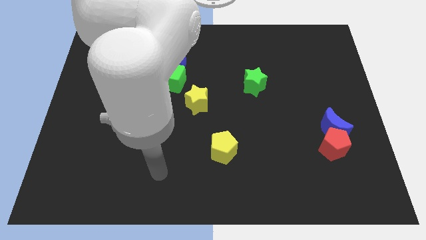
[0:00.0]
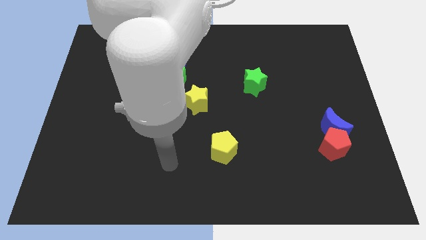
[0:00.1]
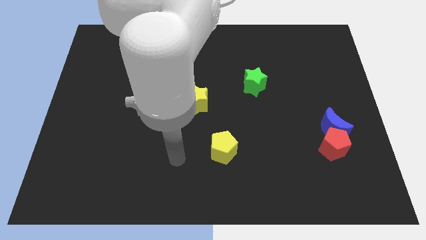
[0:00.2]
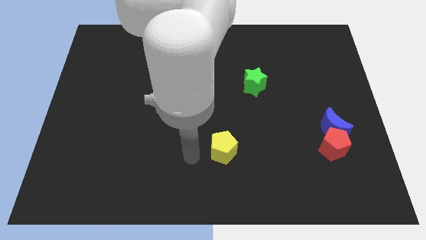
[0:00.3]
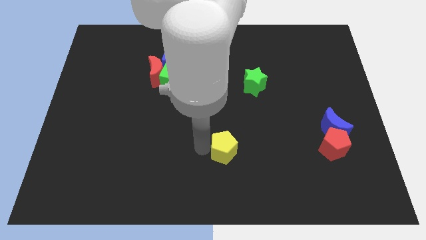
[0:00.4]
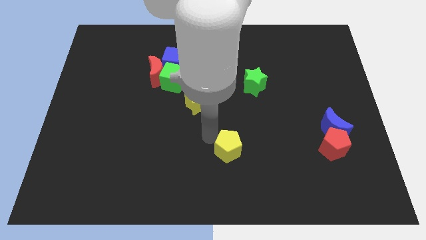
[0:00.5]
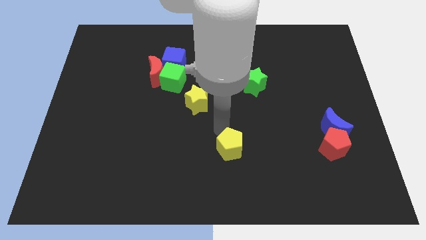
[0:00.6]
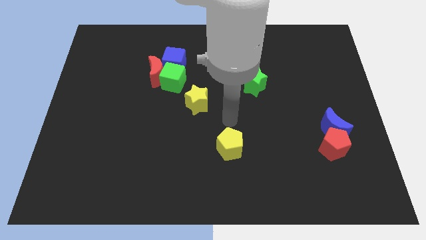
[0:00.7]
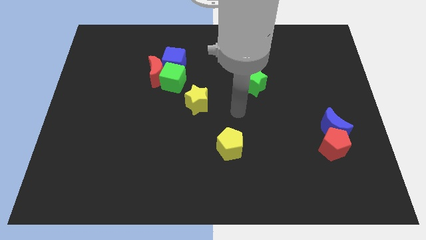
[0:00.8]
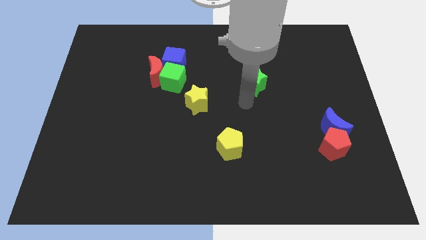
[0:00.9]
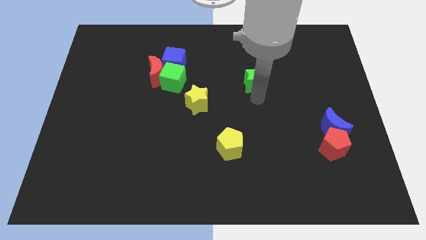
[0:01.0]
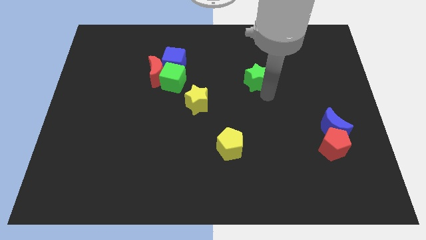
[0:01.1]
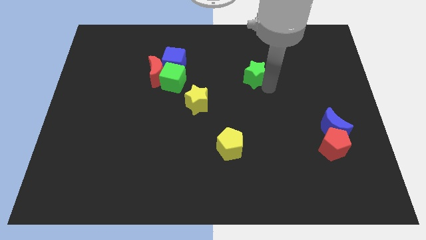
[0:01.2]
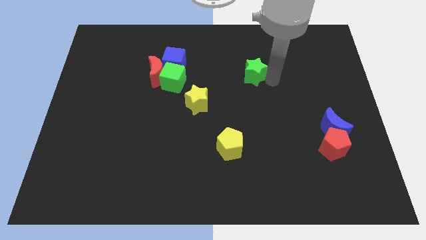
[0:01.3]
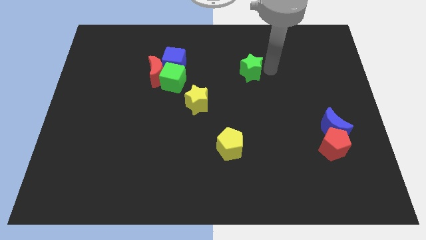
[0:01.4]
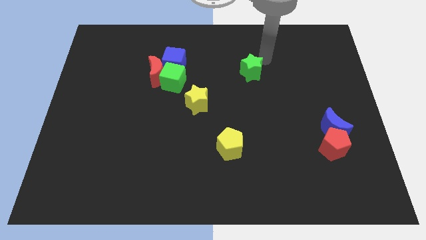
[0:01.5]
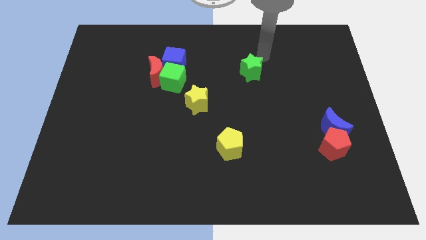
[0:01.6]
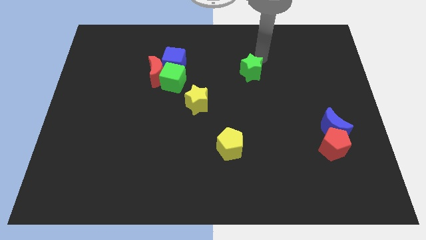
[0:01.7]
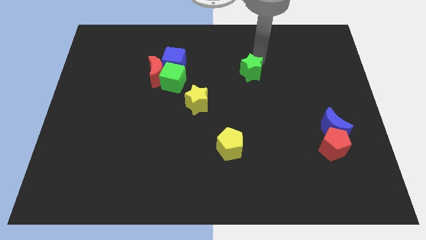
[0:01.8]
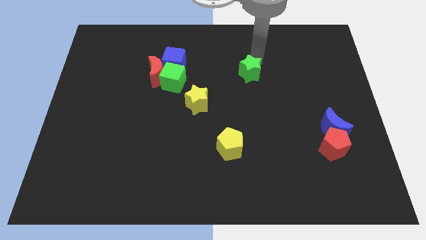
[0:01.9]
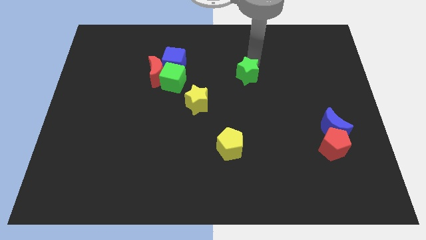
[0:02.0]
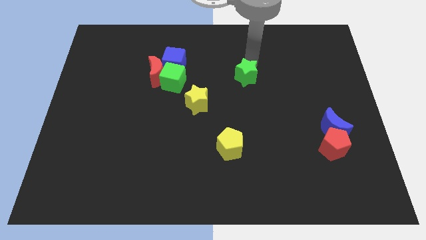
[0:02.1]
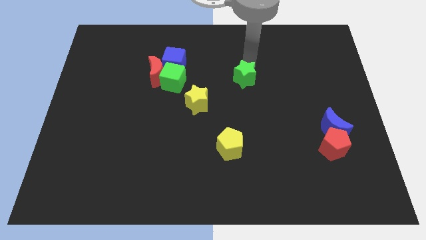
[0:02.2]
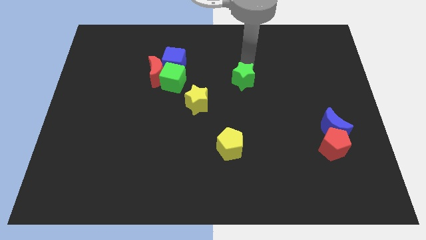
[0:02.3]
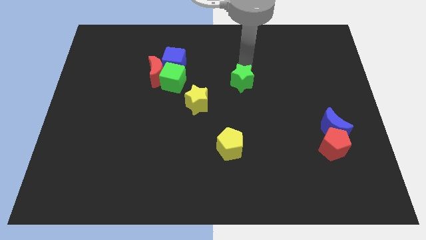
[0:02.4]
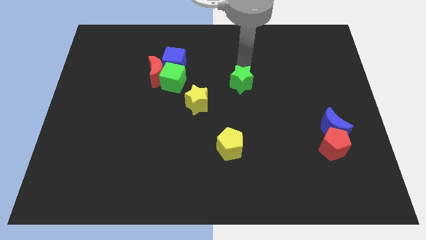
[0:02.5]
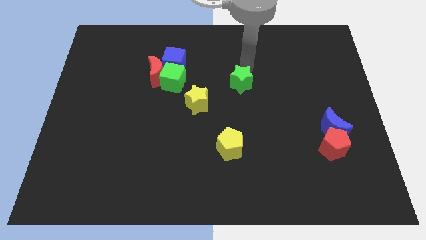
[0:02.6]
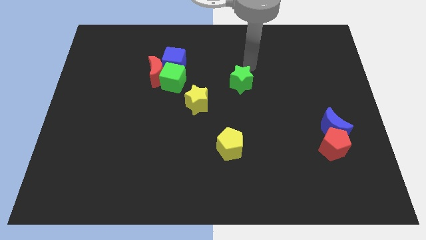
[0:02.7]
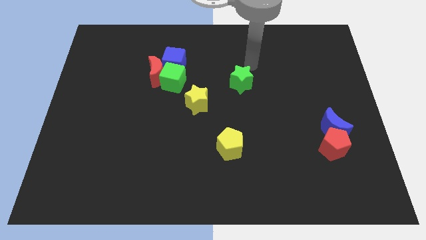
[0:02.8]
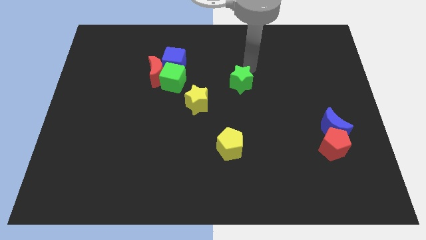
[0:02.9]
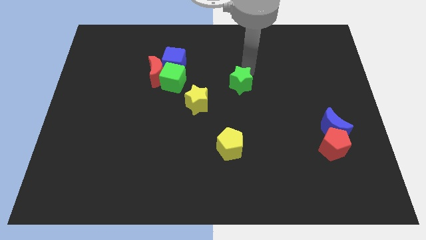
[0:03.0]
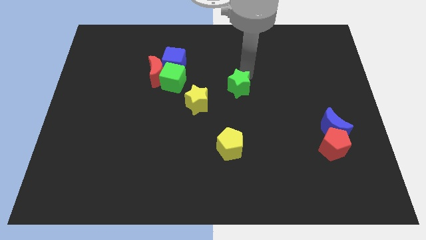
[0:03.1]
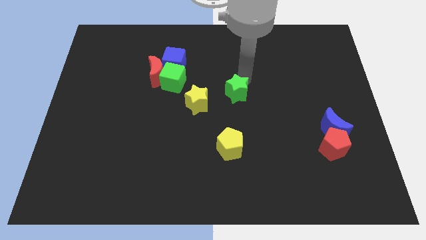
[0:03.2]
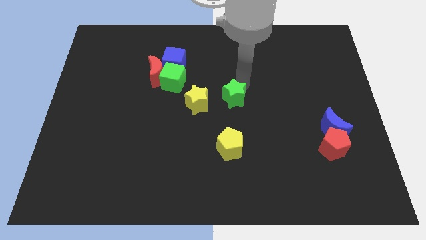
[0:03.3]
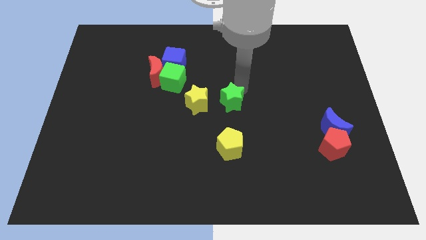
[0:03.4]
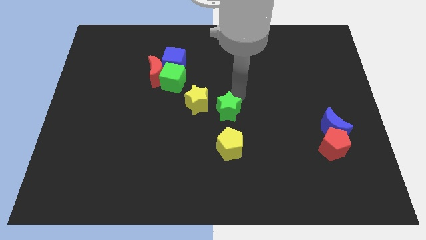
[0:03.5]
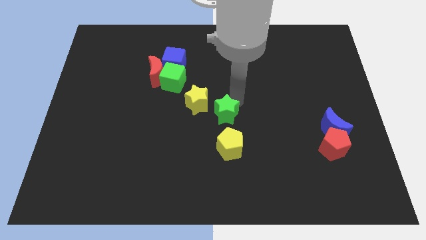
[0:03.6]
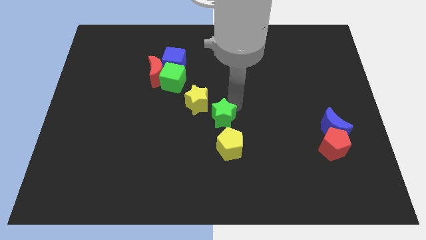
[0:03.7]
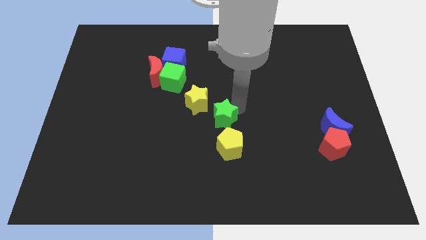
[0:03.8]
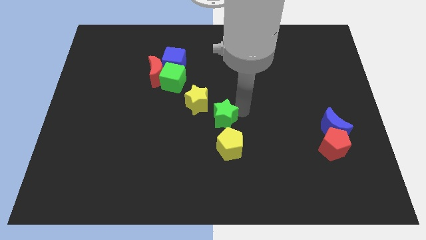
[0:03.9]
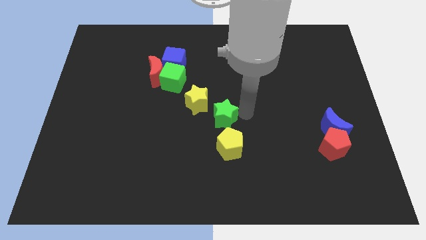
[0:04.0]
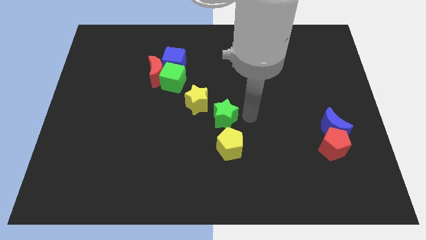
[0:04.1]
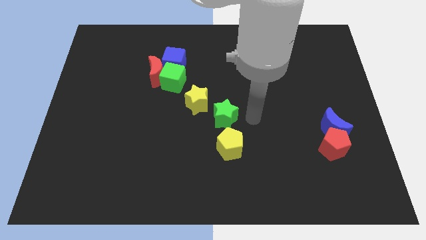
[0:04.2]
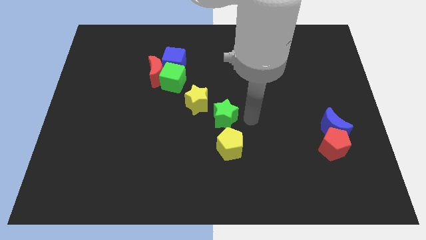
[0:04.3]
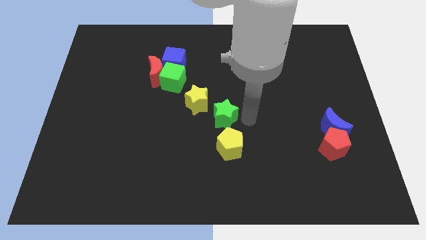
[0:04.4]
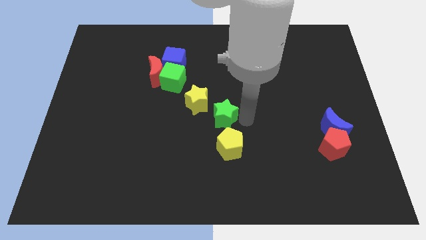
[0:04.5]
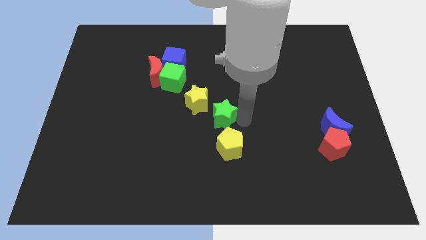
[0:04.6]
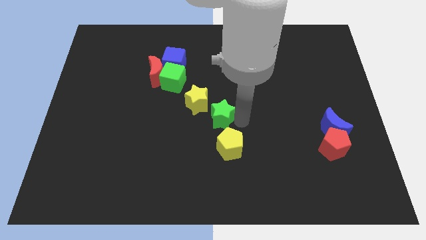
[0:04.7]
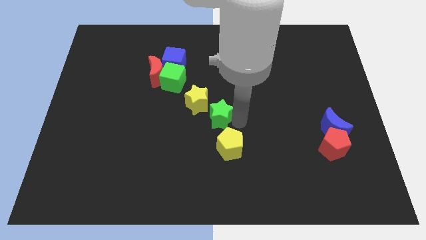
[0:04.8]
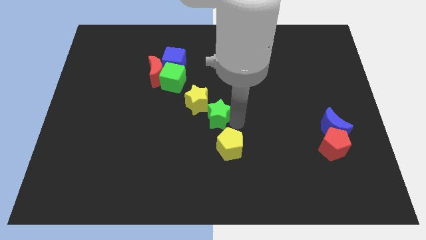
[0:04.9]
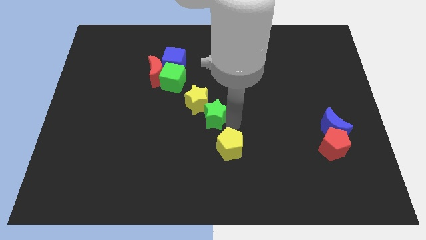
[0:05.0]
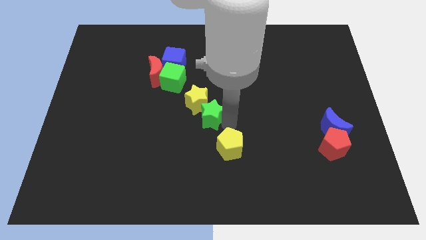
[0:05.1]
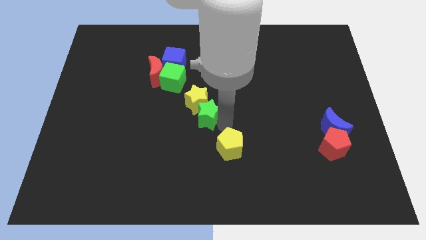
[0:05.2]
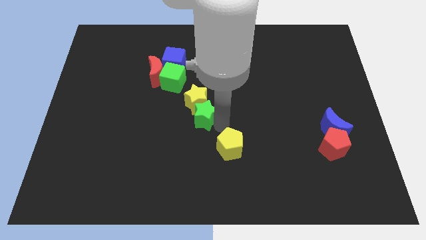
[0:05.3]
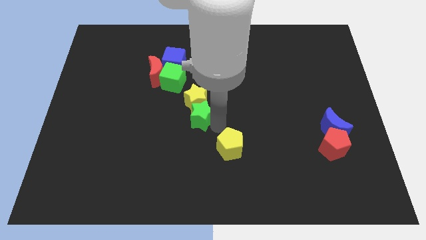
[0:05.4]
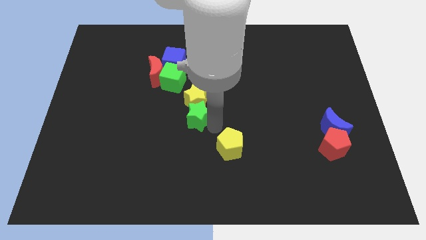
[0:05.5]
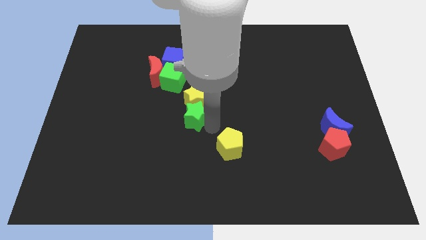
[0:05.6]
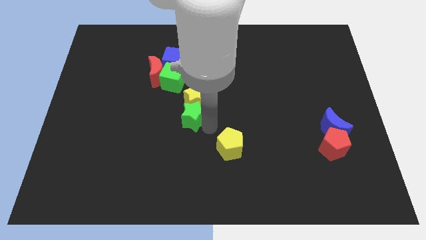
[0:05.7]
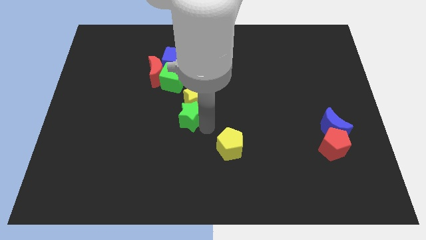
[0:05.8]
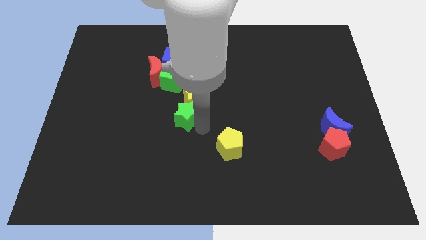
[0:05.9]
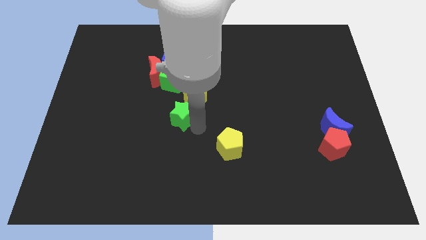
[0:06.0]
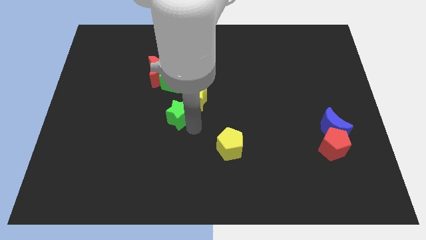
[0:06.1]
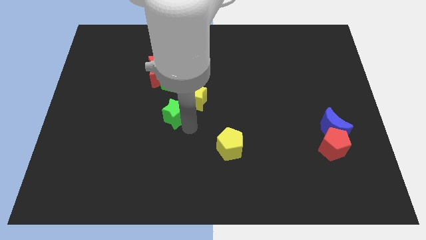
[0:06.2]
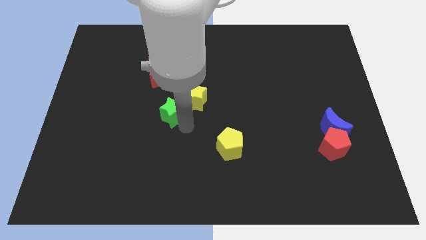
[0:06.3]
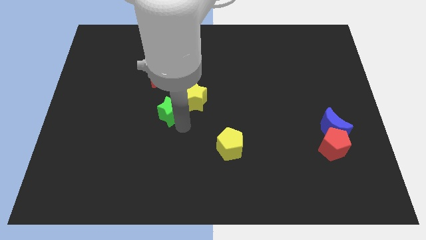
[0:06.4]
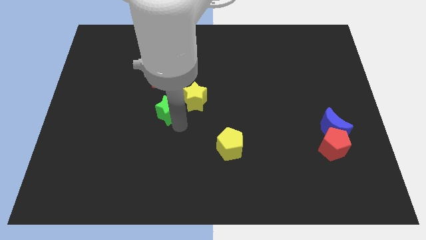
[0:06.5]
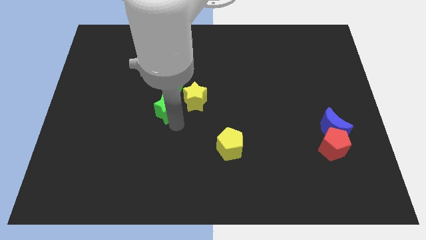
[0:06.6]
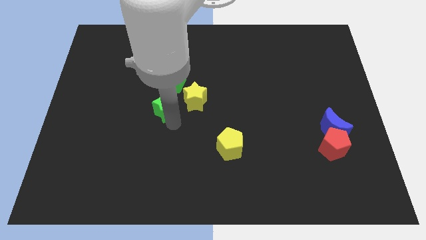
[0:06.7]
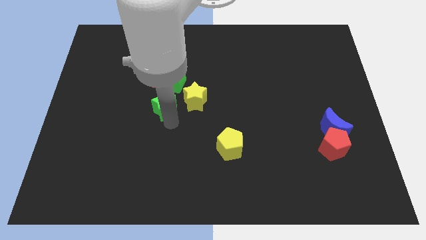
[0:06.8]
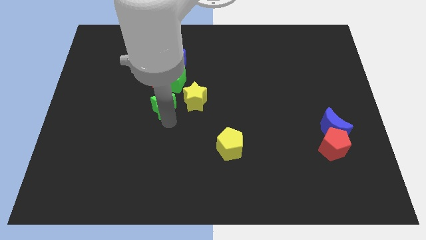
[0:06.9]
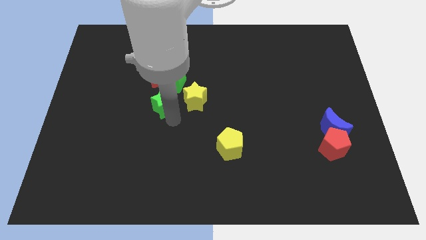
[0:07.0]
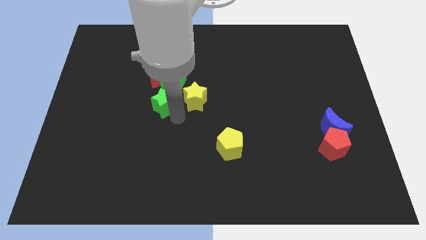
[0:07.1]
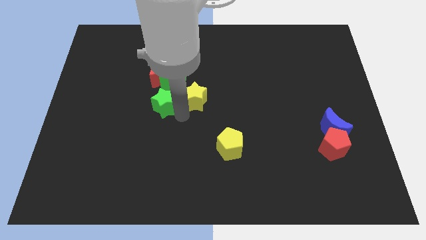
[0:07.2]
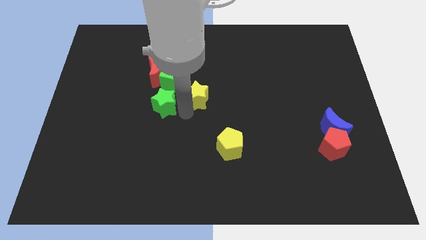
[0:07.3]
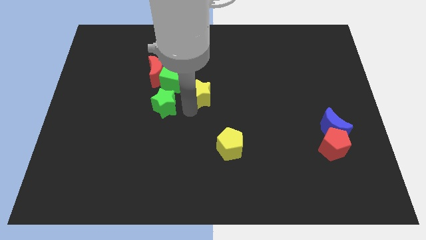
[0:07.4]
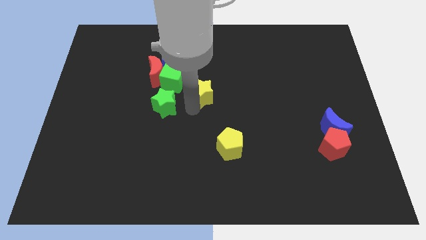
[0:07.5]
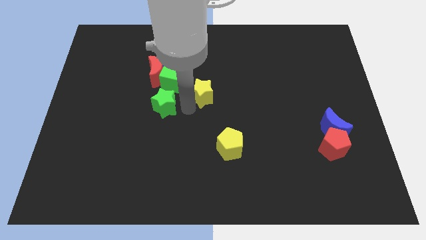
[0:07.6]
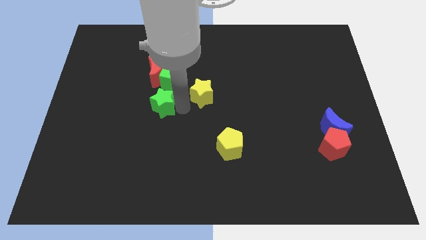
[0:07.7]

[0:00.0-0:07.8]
push the green star to the left

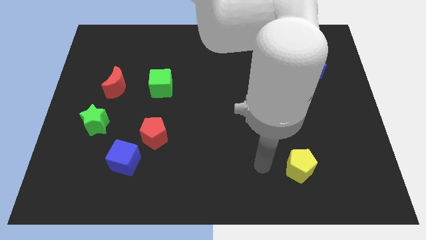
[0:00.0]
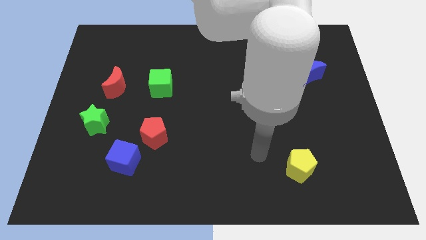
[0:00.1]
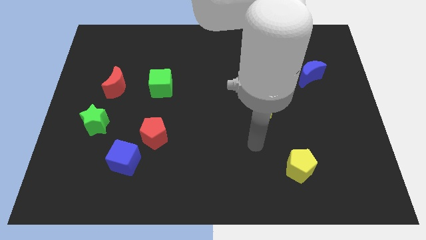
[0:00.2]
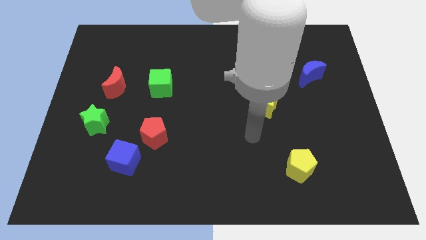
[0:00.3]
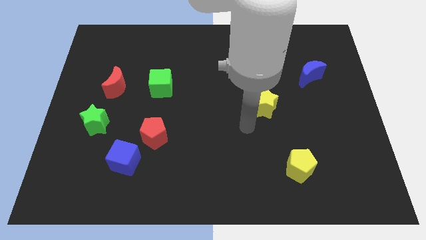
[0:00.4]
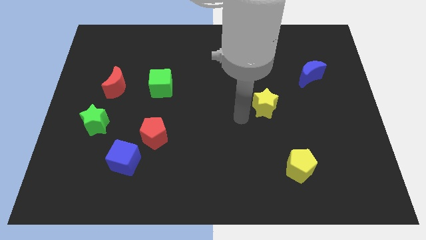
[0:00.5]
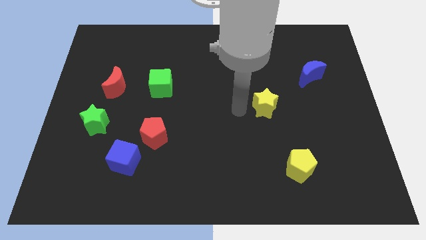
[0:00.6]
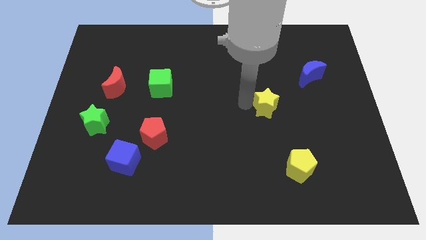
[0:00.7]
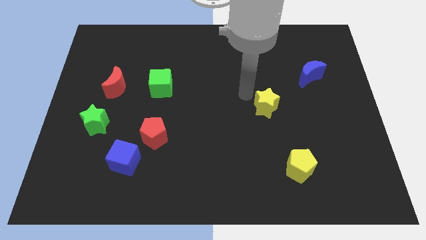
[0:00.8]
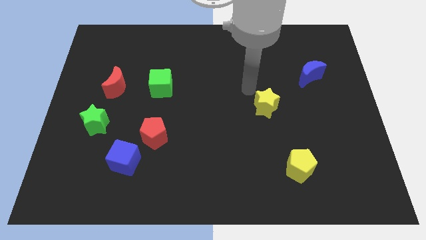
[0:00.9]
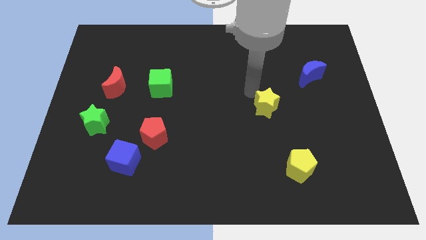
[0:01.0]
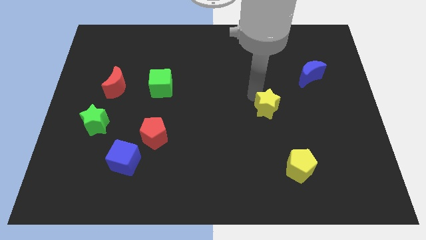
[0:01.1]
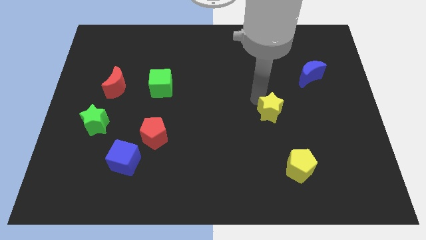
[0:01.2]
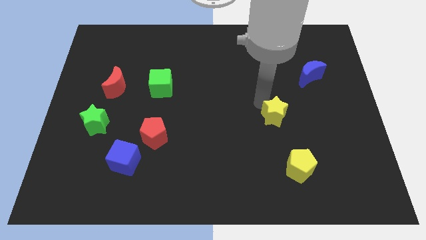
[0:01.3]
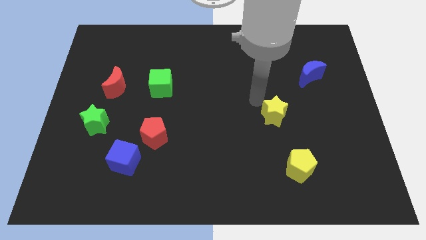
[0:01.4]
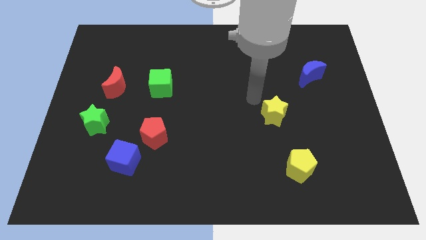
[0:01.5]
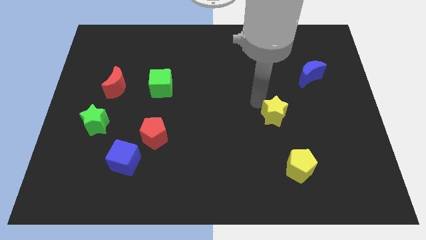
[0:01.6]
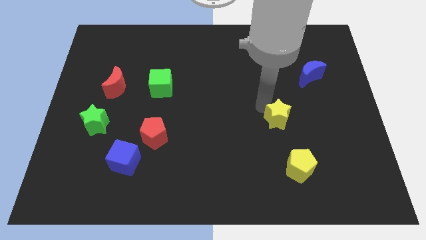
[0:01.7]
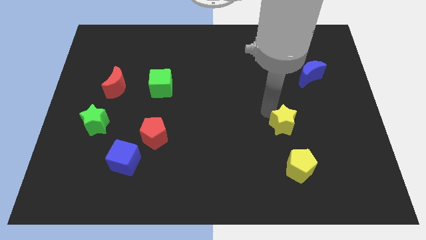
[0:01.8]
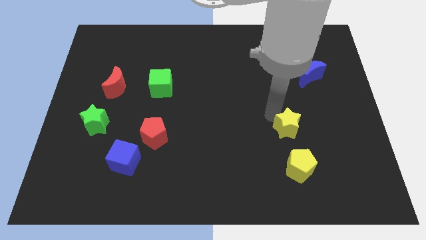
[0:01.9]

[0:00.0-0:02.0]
slightly push the yellow star down and then to the right
